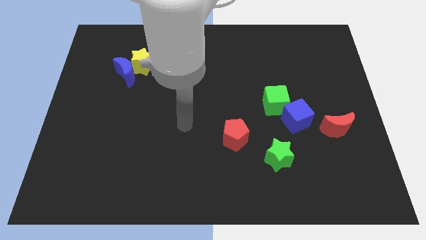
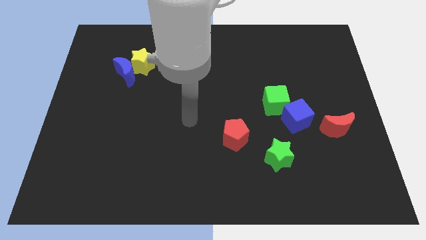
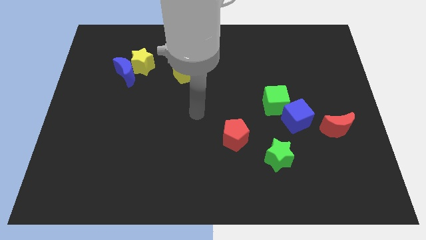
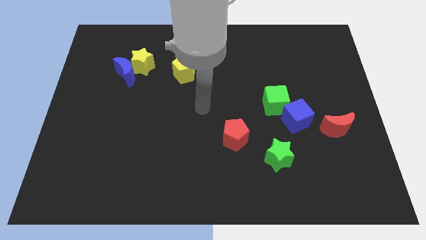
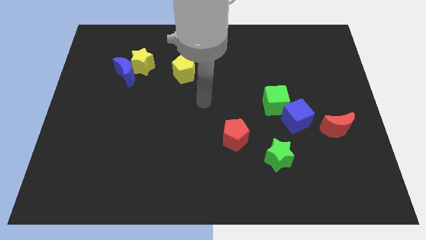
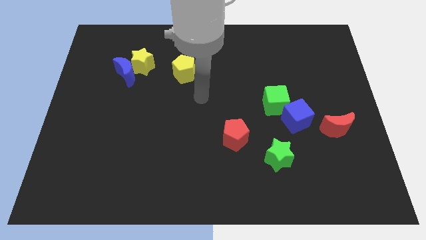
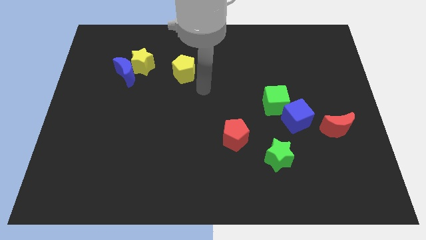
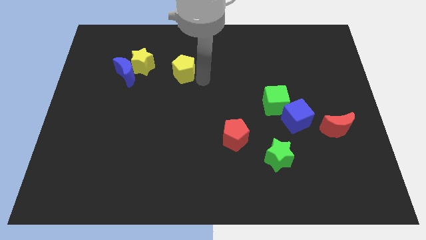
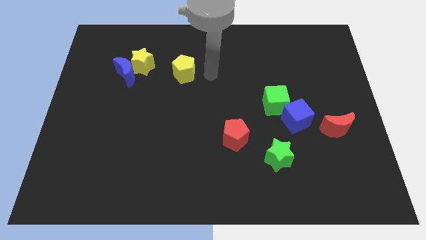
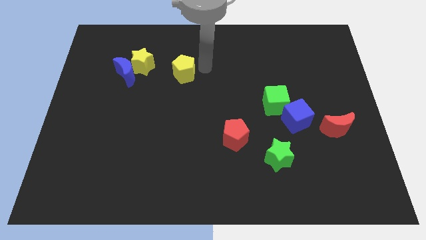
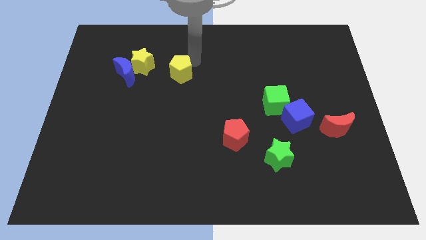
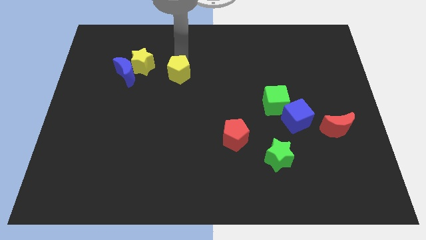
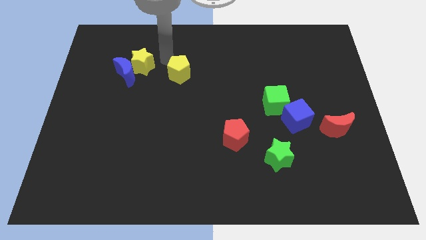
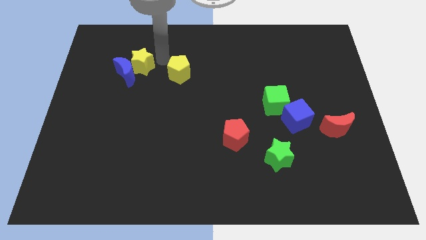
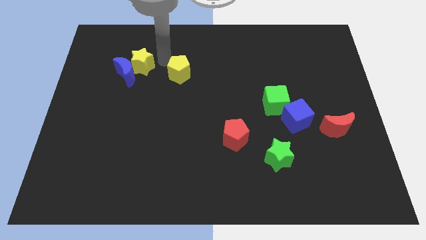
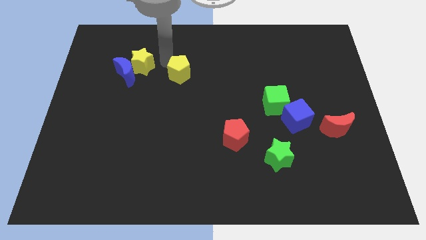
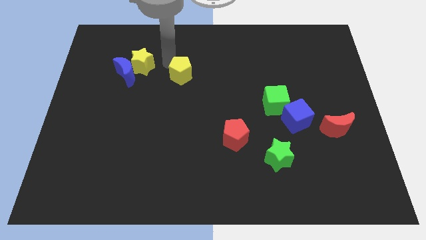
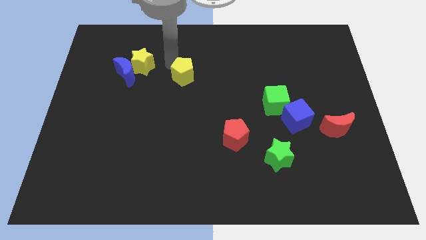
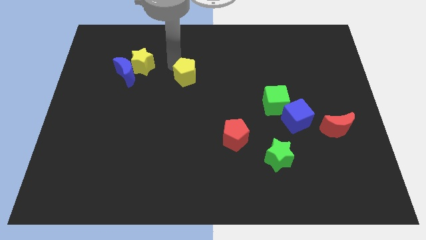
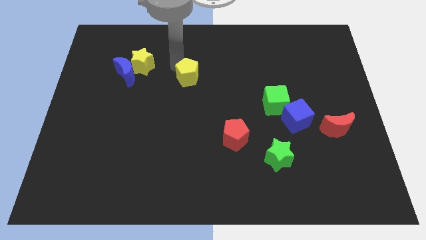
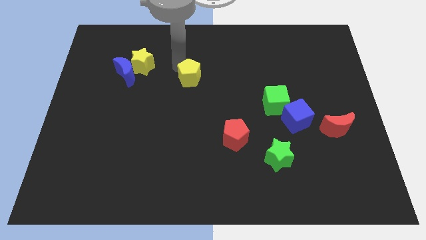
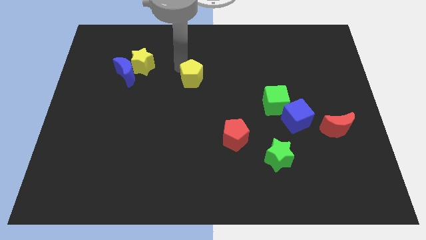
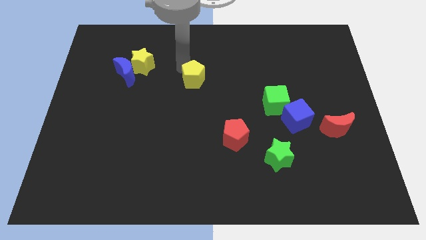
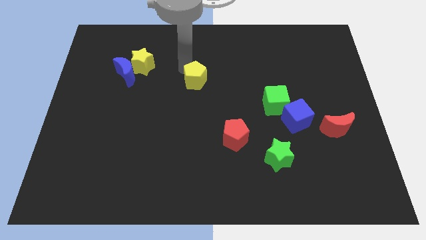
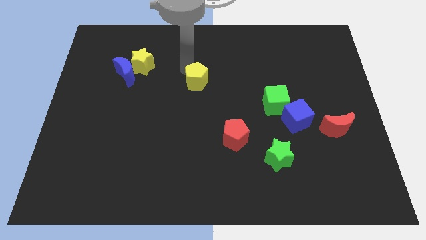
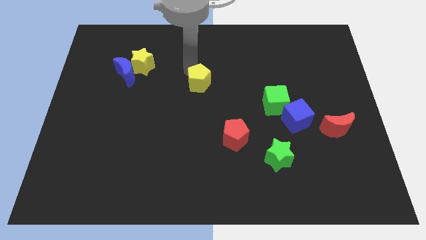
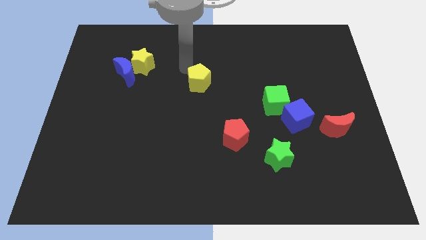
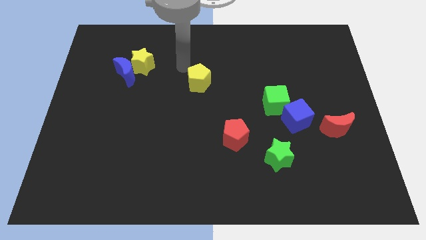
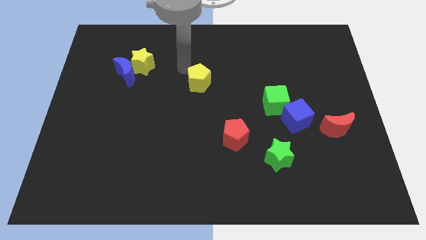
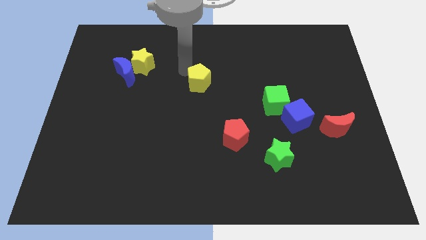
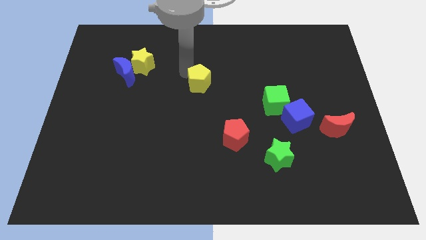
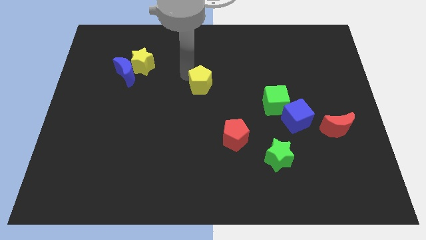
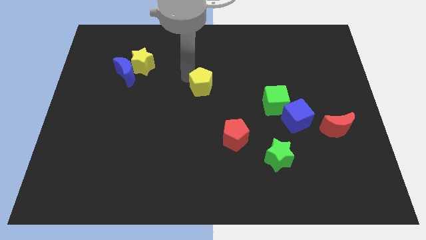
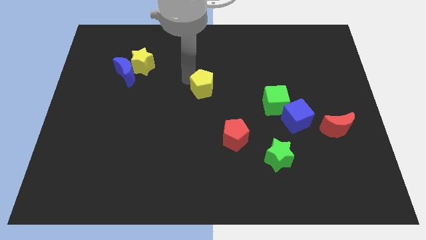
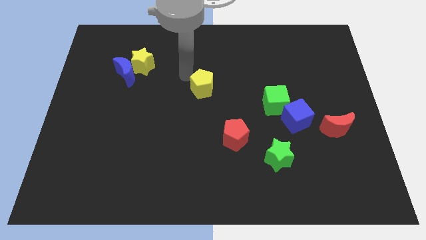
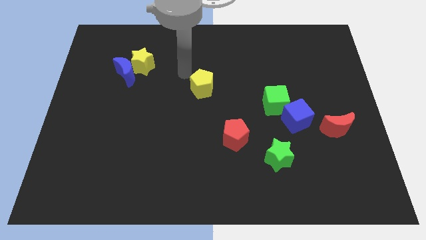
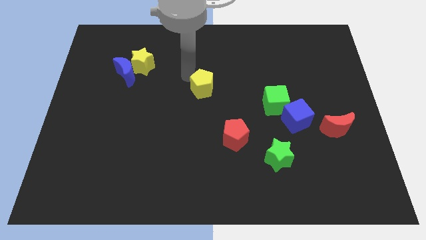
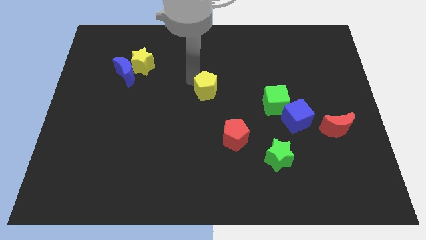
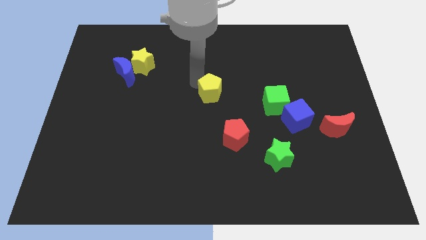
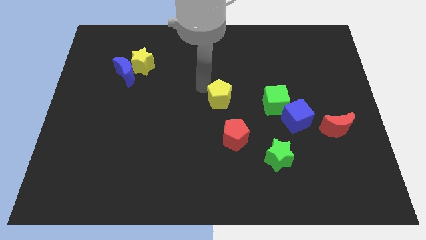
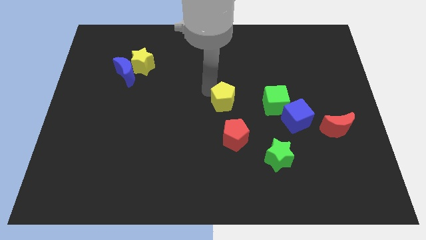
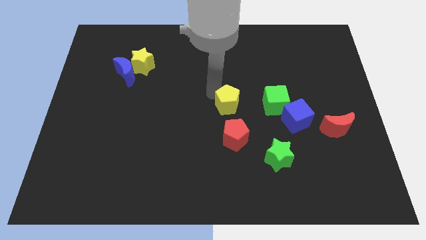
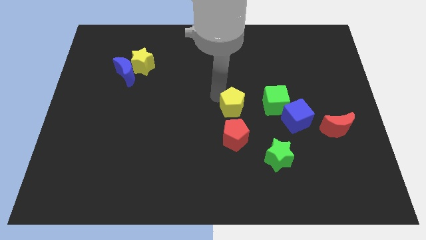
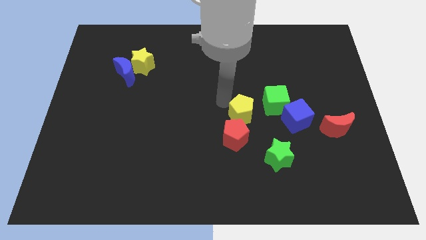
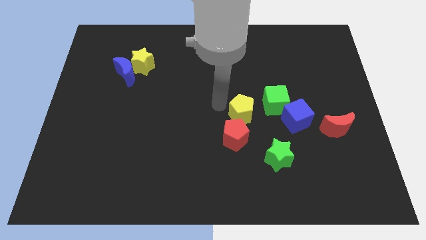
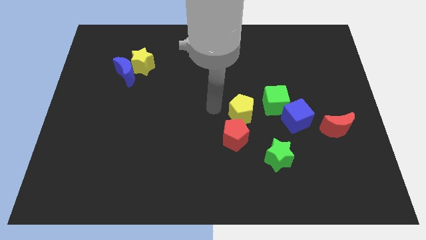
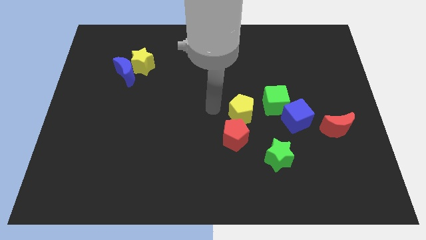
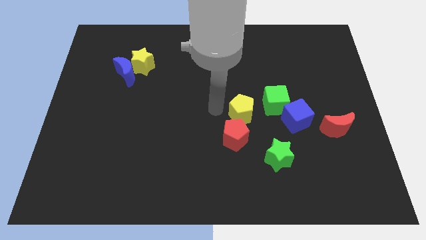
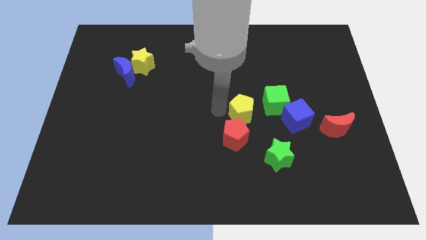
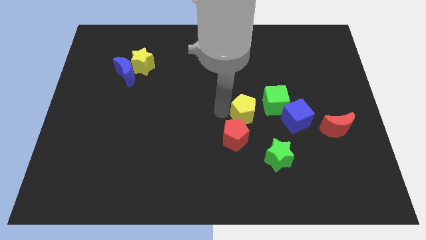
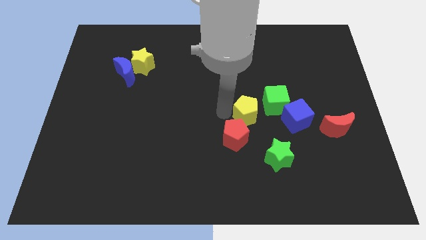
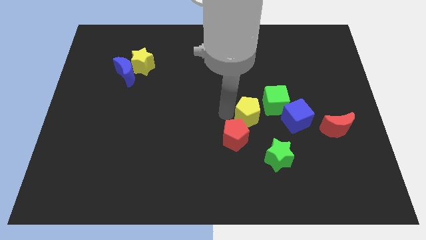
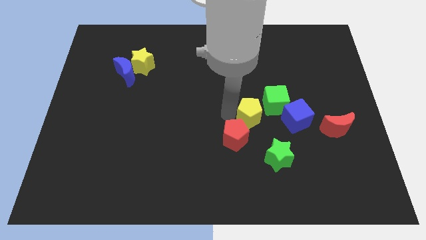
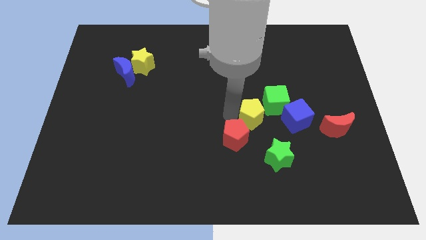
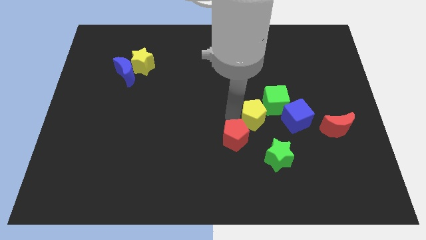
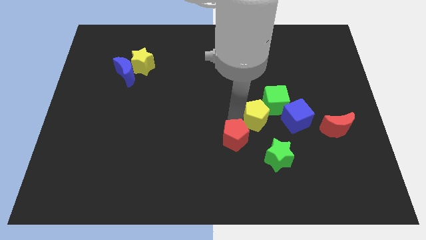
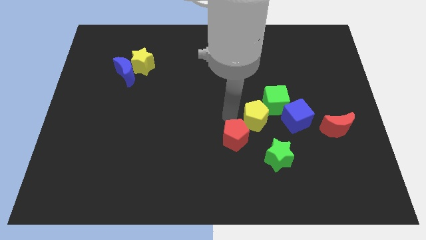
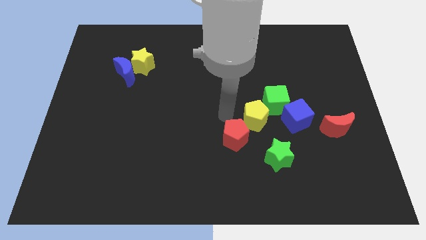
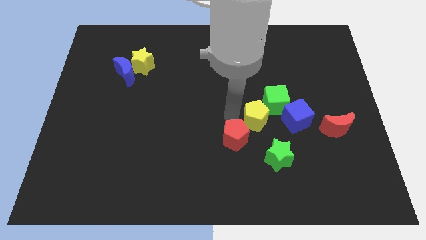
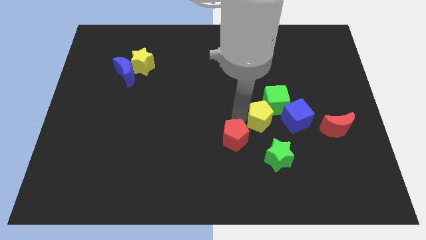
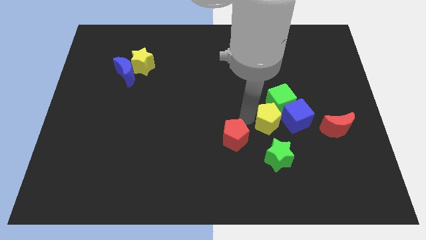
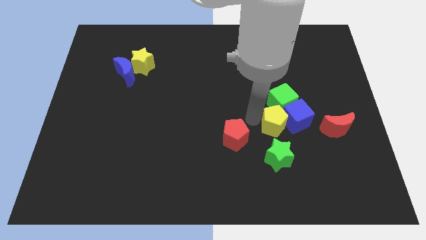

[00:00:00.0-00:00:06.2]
push the yellow pentagon to the blue cube

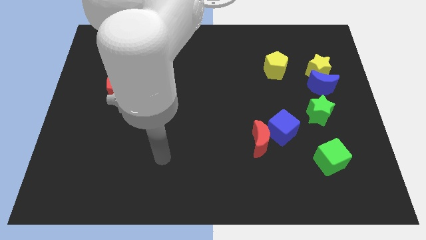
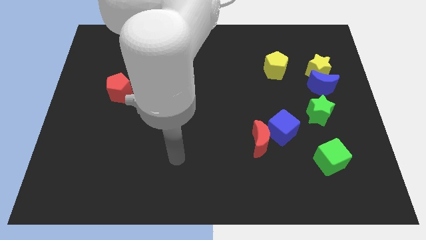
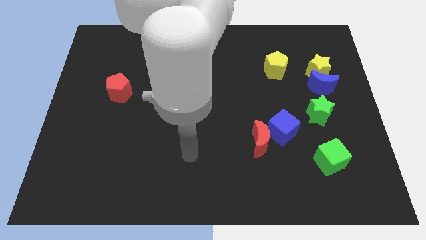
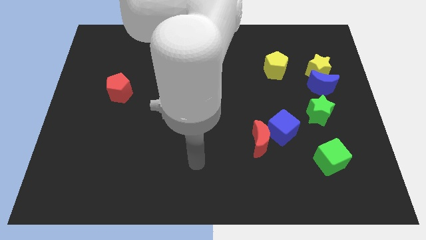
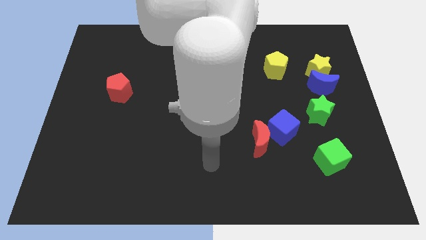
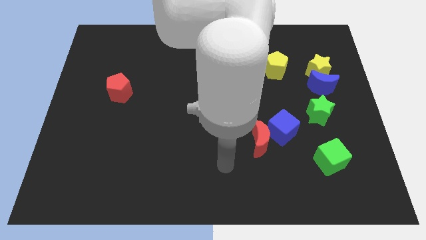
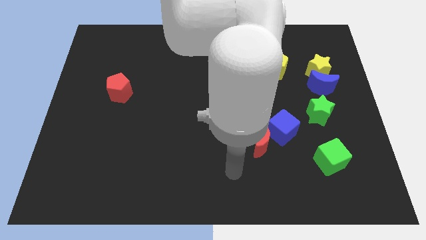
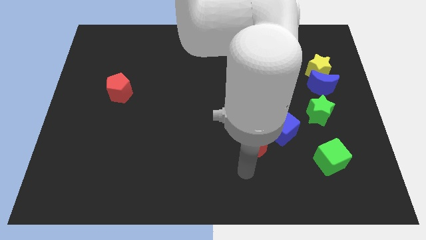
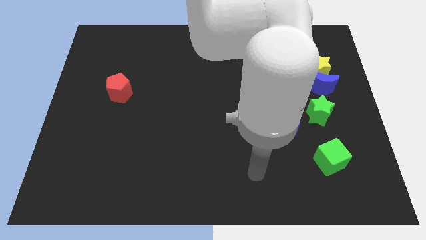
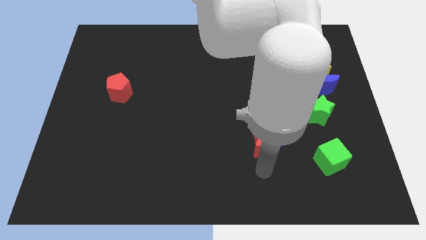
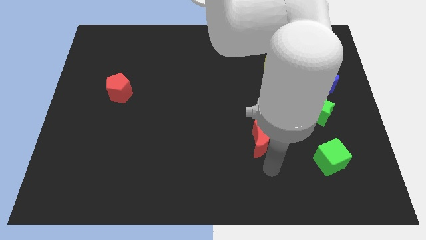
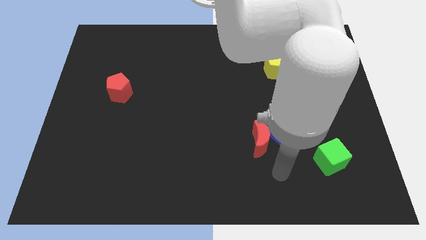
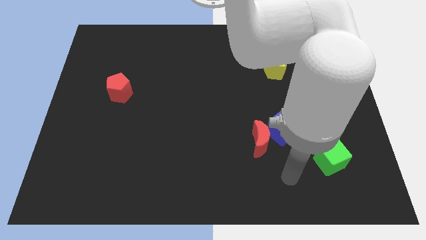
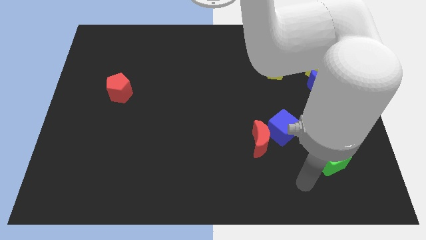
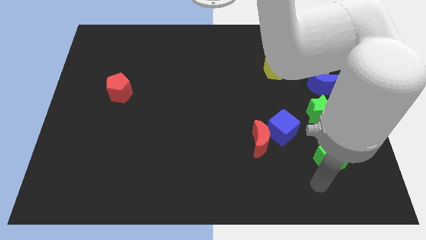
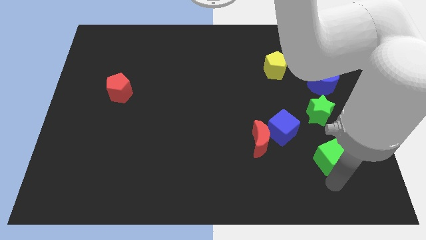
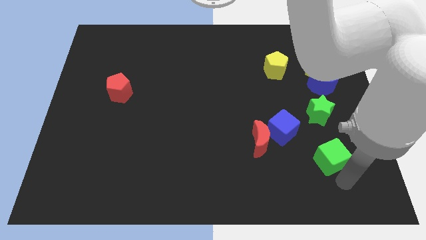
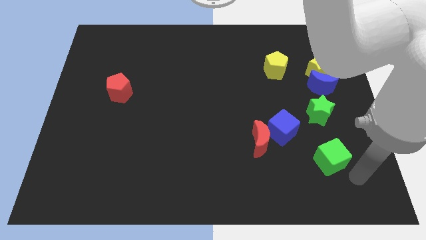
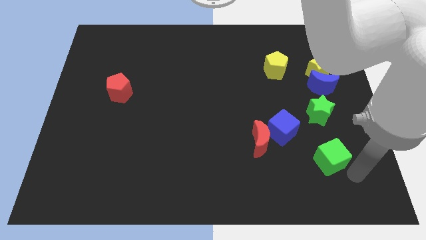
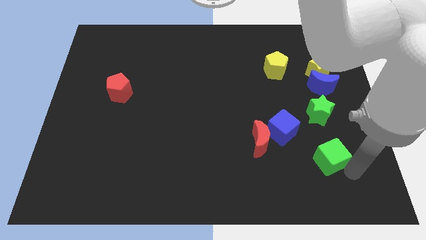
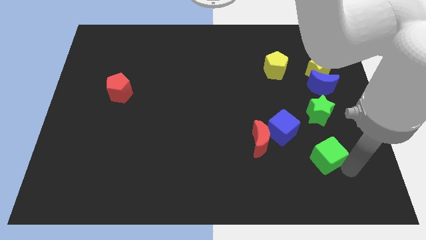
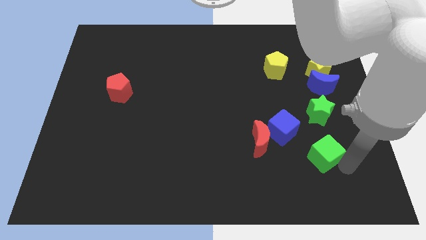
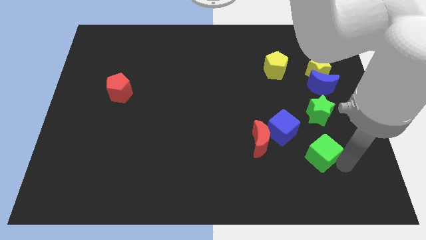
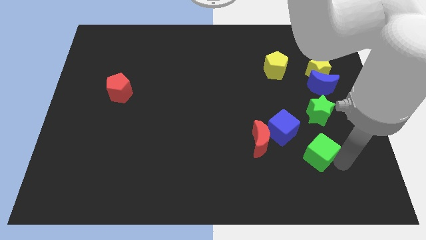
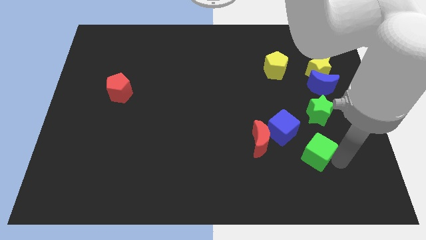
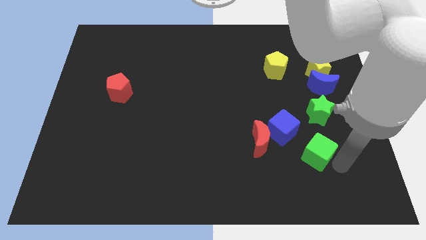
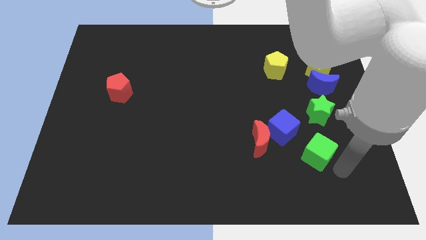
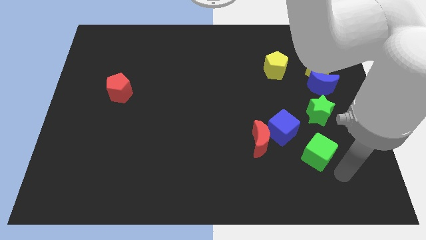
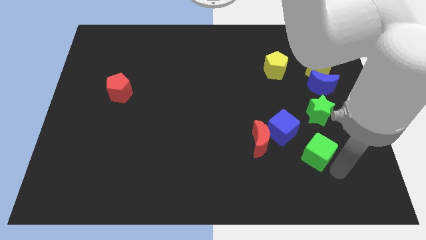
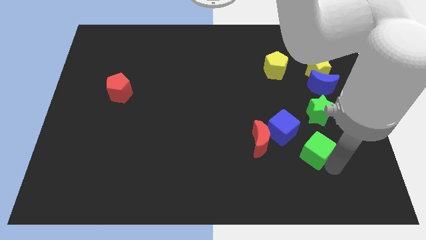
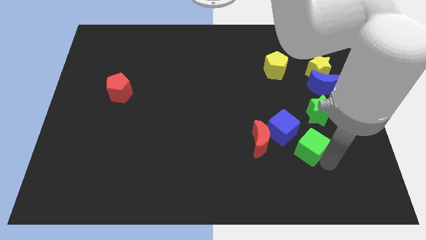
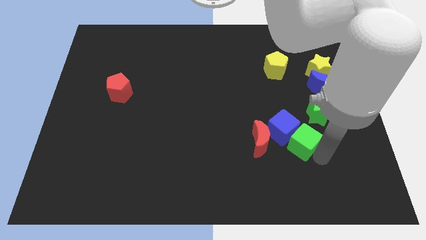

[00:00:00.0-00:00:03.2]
put the green cube to the blue cube
